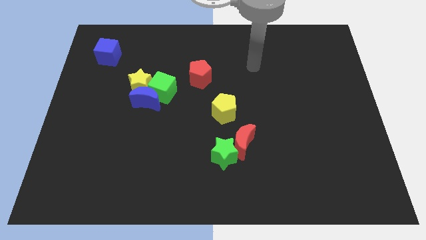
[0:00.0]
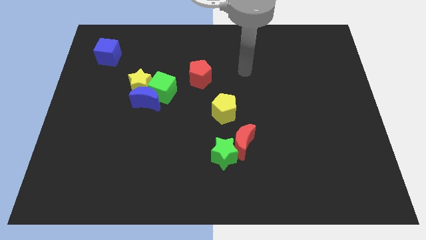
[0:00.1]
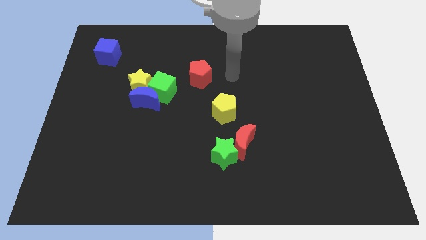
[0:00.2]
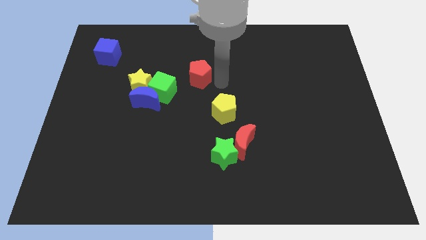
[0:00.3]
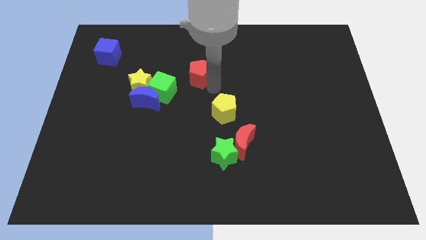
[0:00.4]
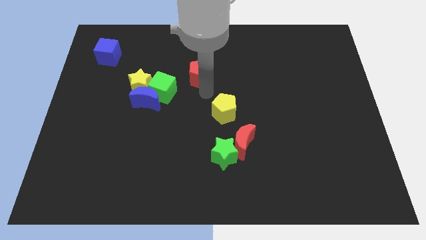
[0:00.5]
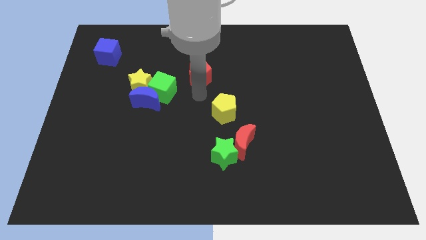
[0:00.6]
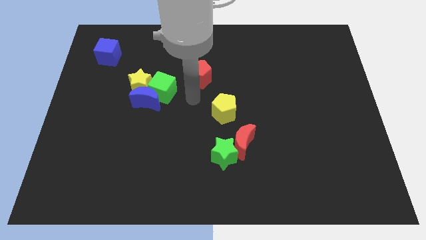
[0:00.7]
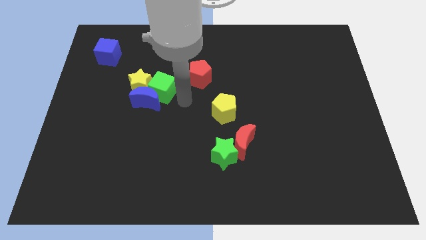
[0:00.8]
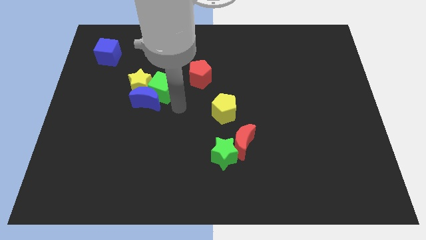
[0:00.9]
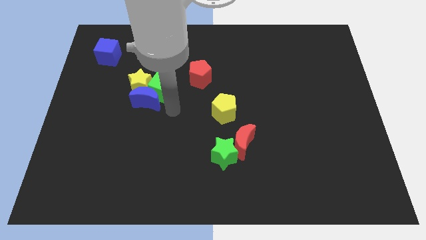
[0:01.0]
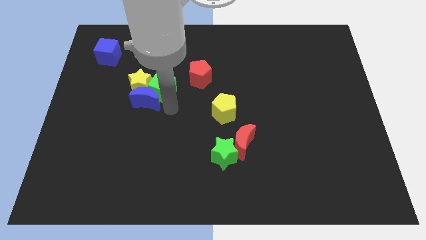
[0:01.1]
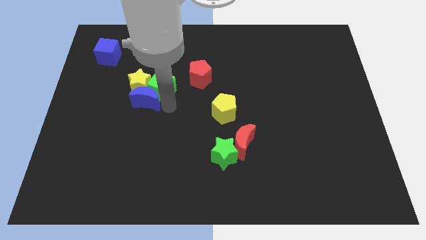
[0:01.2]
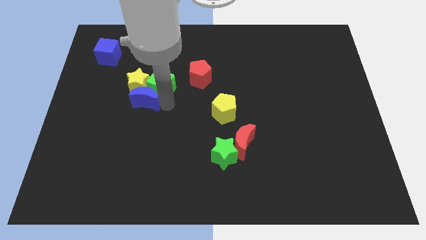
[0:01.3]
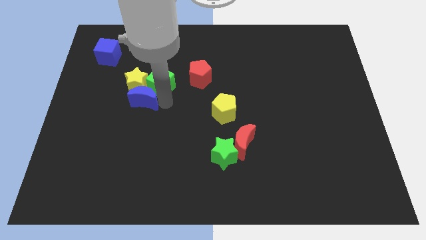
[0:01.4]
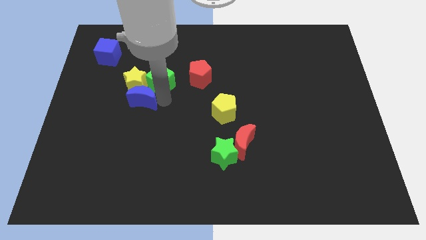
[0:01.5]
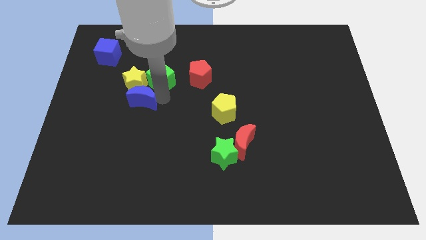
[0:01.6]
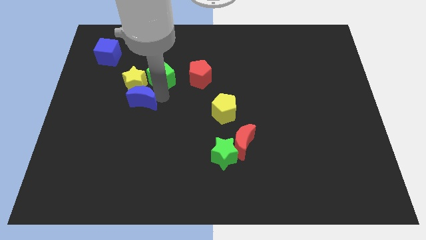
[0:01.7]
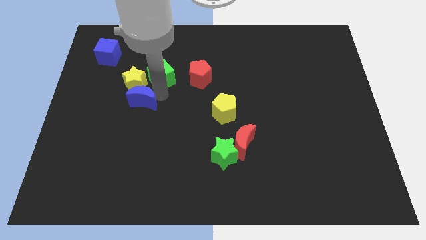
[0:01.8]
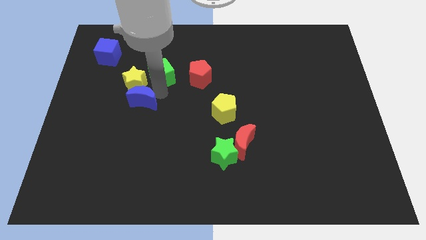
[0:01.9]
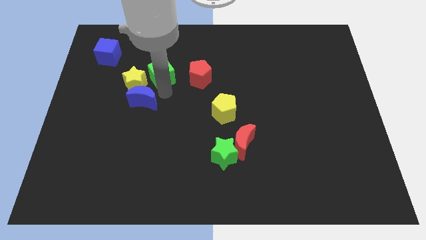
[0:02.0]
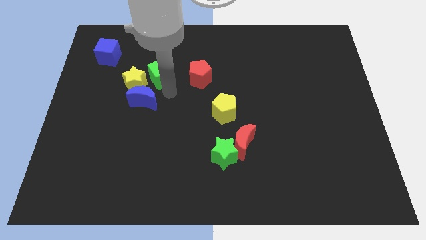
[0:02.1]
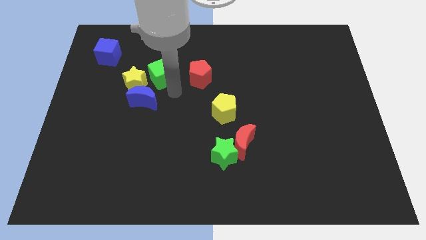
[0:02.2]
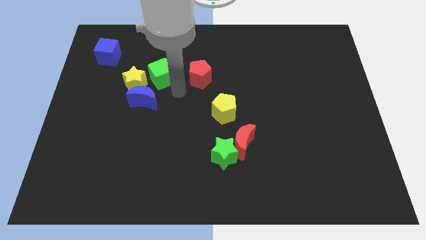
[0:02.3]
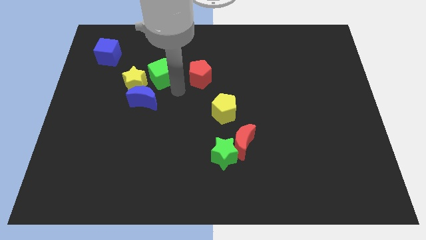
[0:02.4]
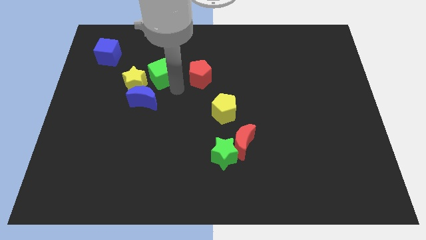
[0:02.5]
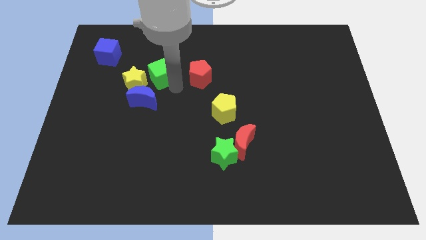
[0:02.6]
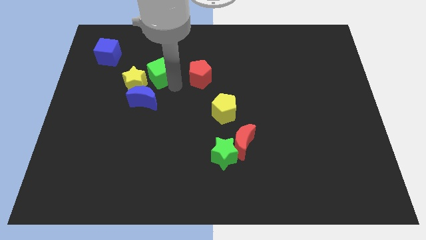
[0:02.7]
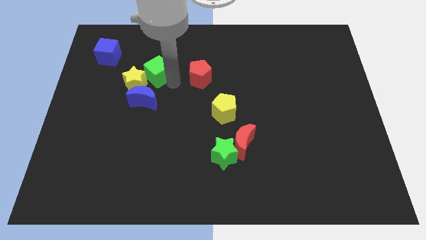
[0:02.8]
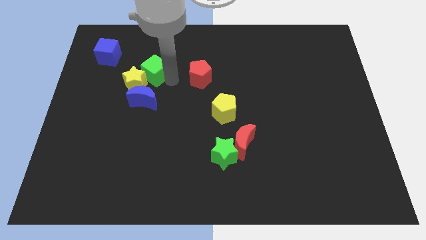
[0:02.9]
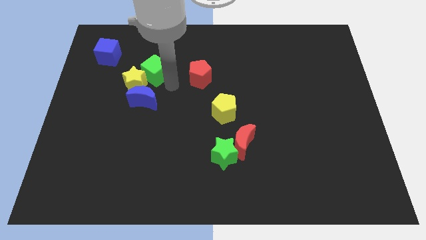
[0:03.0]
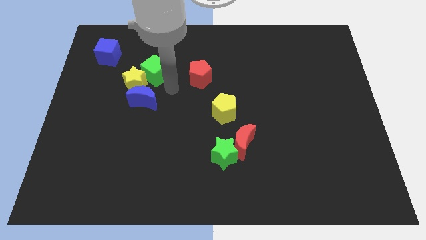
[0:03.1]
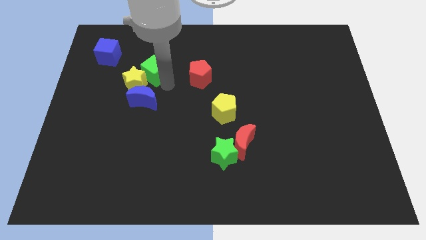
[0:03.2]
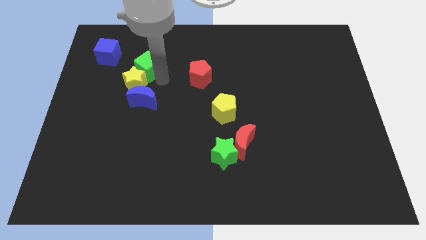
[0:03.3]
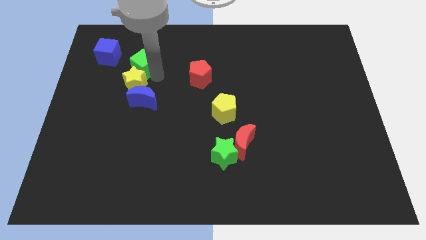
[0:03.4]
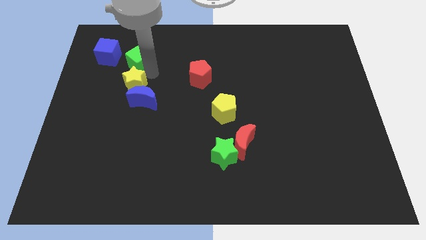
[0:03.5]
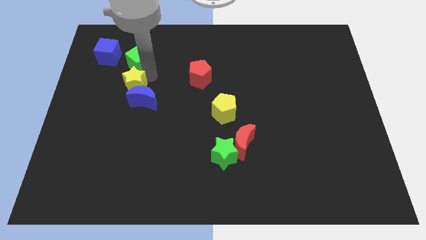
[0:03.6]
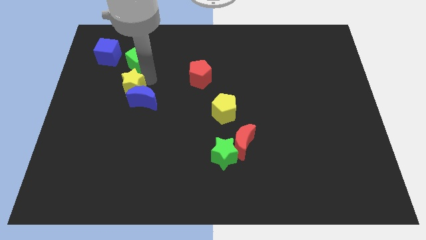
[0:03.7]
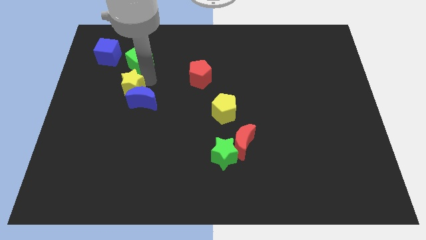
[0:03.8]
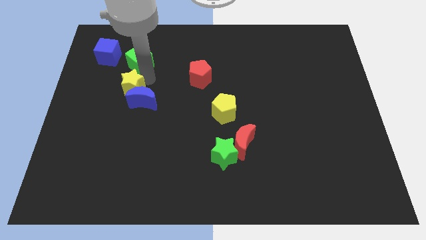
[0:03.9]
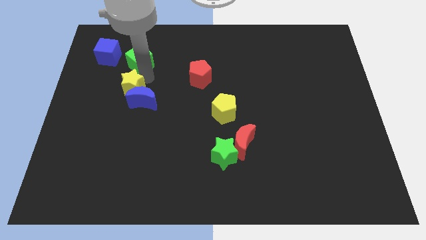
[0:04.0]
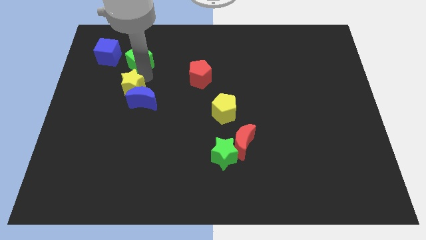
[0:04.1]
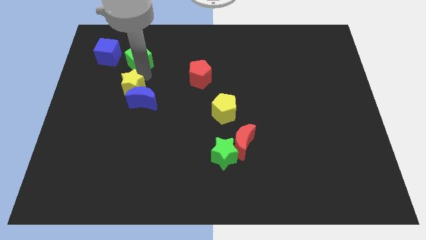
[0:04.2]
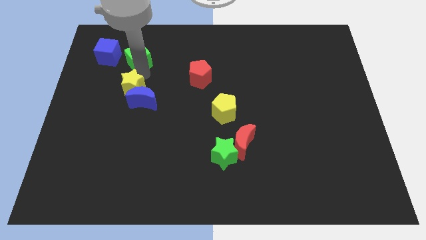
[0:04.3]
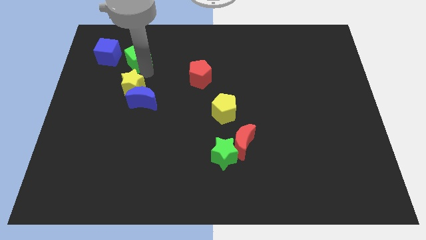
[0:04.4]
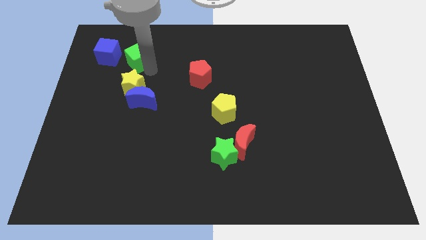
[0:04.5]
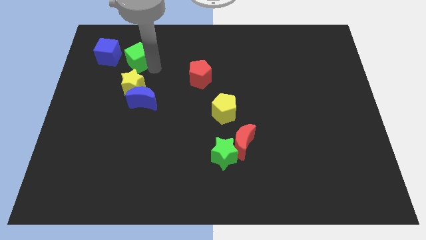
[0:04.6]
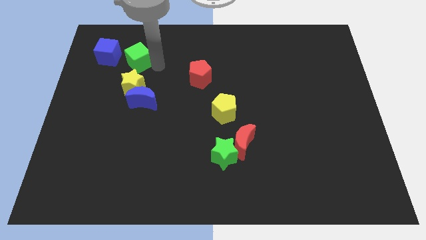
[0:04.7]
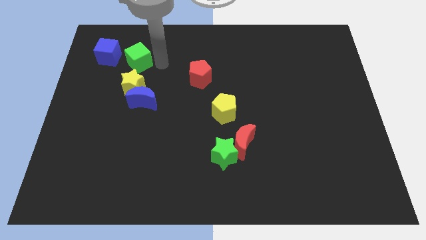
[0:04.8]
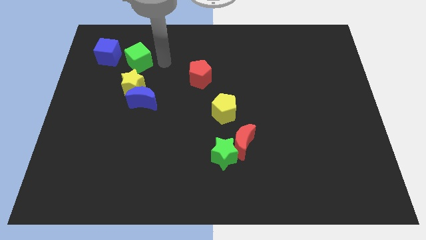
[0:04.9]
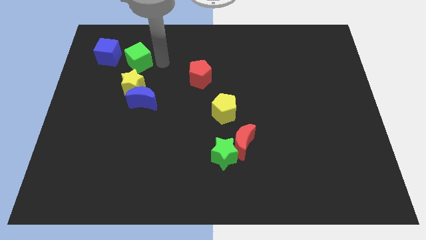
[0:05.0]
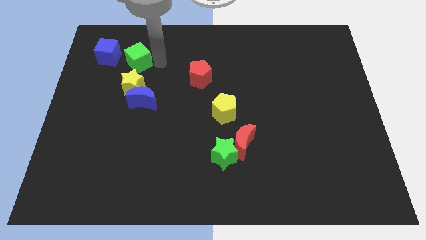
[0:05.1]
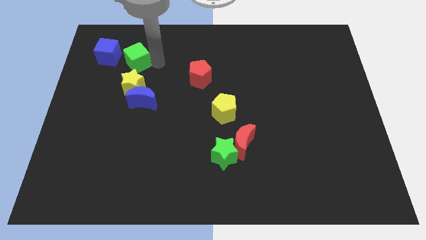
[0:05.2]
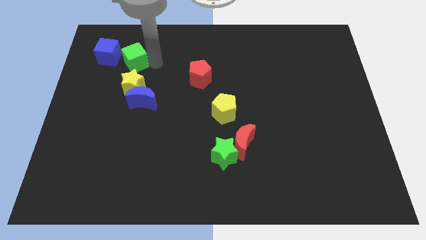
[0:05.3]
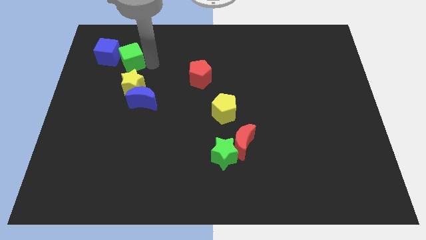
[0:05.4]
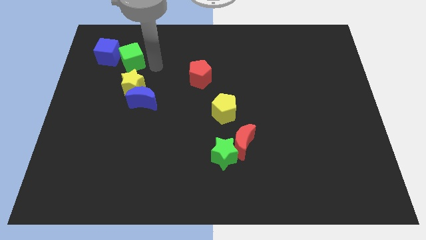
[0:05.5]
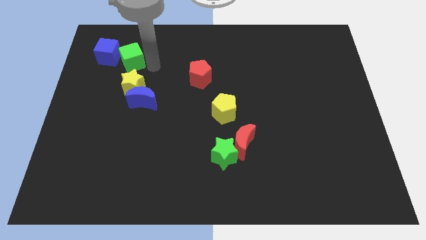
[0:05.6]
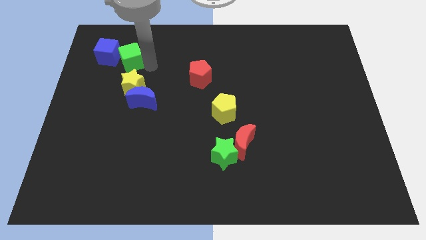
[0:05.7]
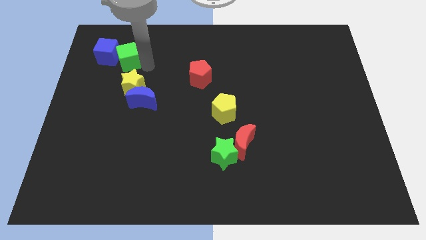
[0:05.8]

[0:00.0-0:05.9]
put the green cube towards the blue cube

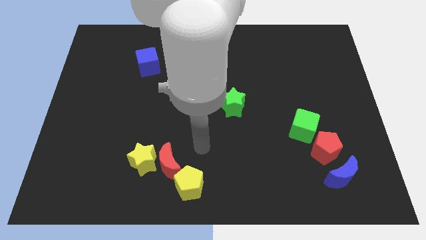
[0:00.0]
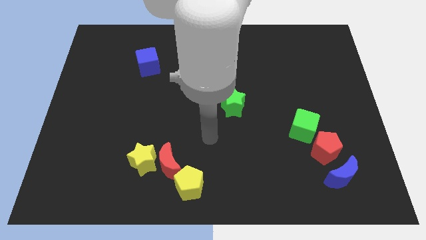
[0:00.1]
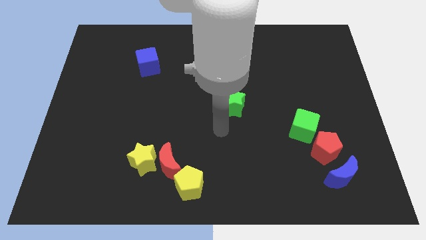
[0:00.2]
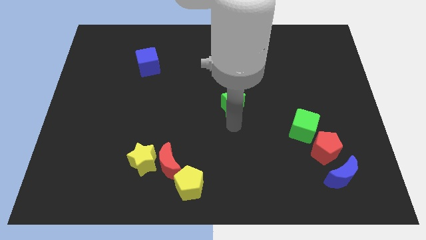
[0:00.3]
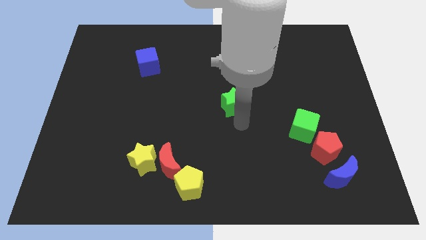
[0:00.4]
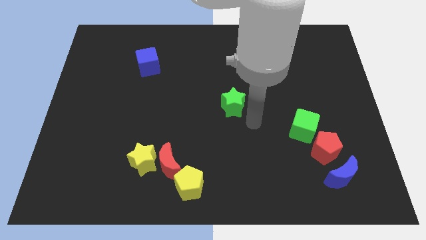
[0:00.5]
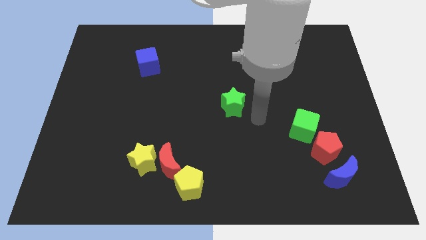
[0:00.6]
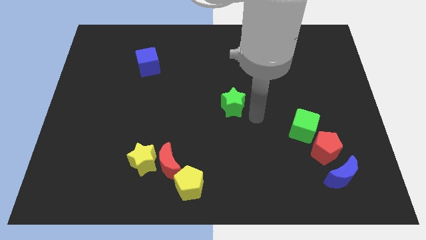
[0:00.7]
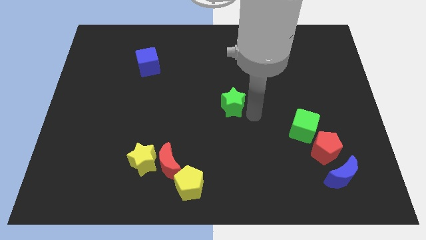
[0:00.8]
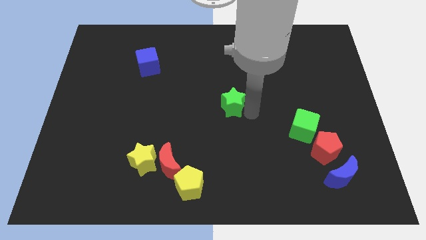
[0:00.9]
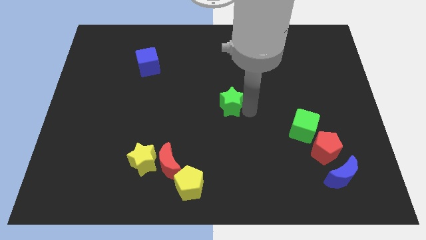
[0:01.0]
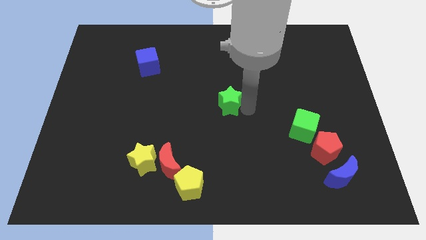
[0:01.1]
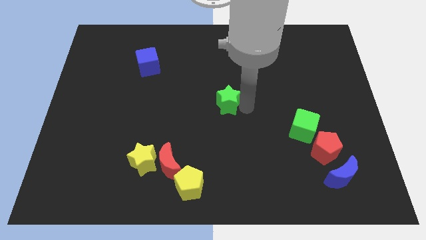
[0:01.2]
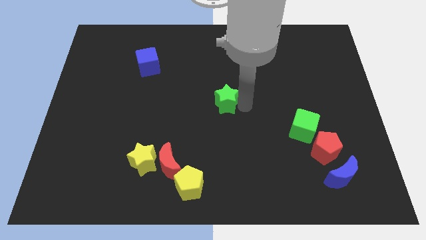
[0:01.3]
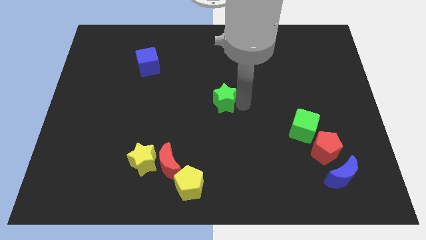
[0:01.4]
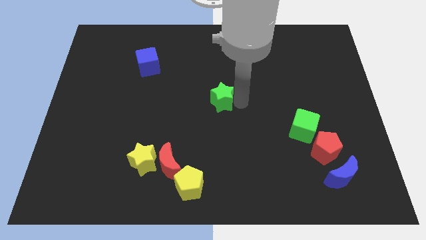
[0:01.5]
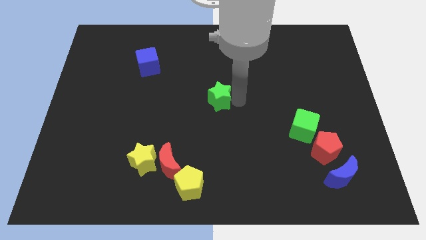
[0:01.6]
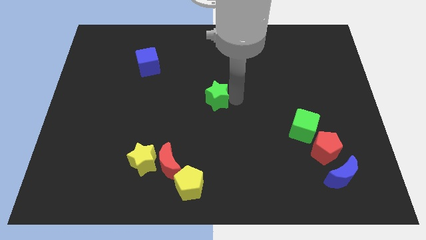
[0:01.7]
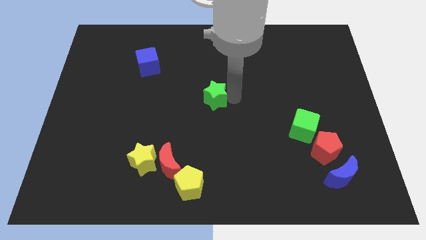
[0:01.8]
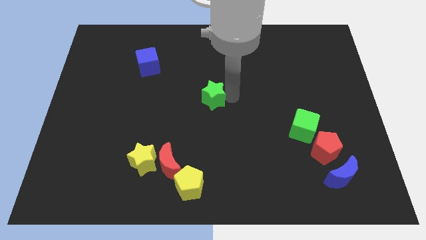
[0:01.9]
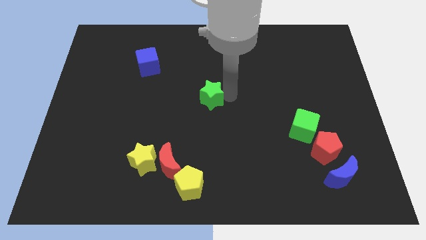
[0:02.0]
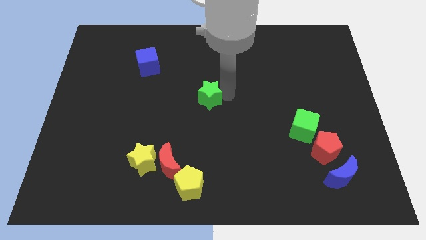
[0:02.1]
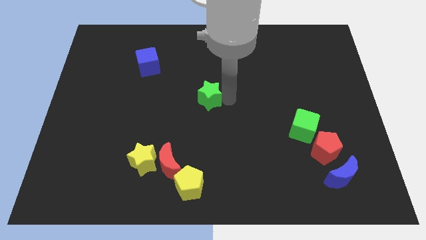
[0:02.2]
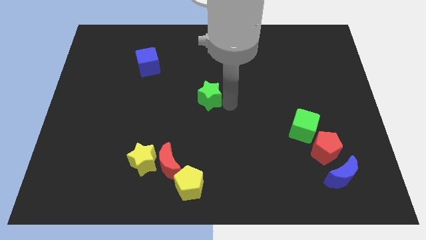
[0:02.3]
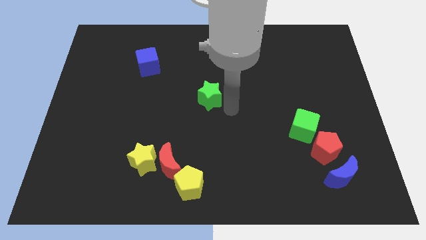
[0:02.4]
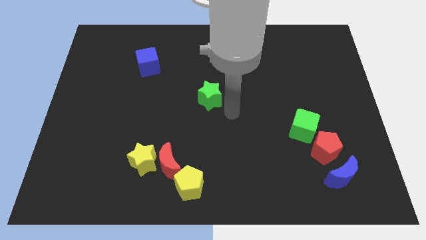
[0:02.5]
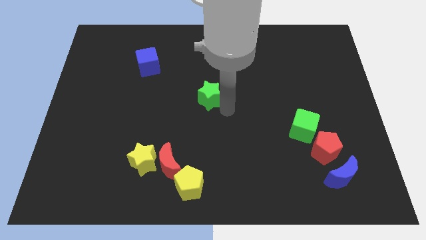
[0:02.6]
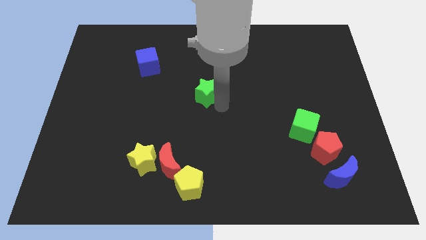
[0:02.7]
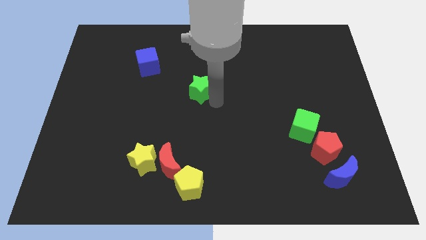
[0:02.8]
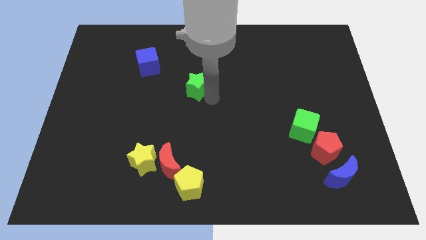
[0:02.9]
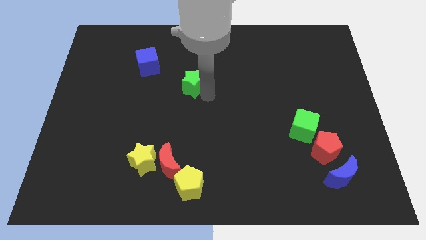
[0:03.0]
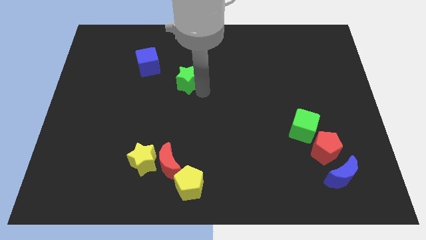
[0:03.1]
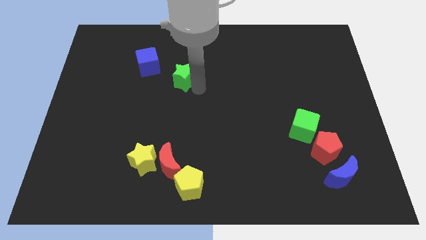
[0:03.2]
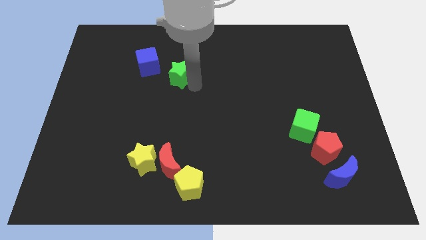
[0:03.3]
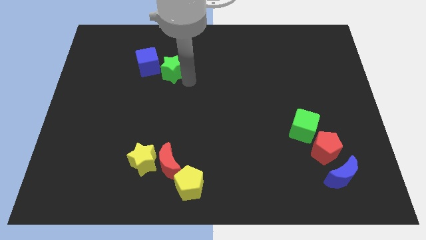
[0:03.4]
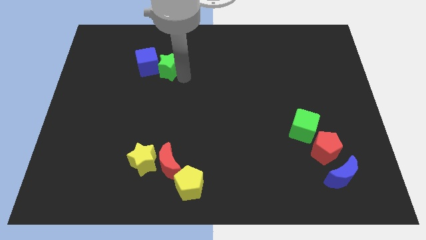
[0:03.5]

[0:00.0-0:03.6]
slide the green star to the blue cube
